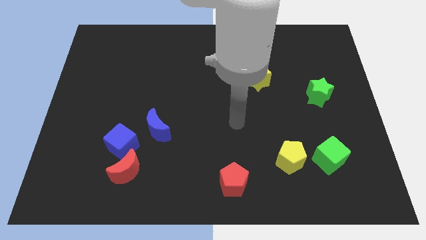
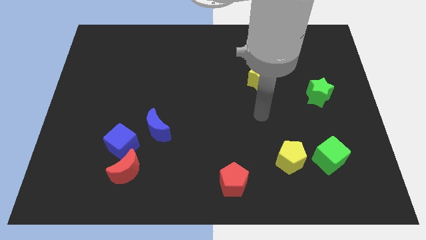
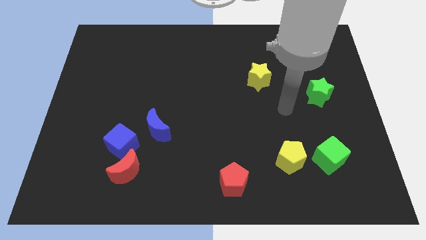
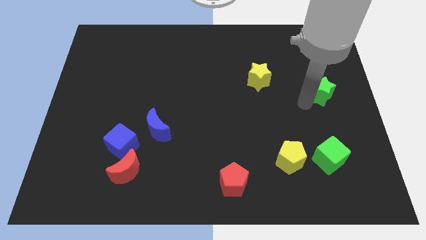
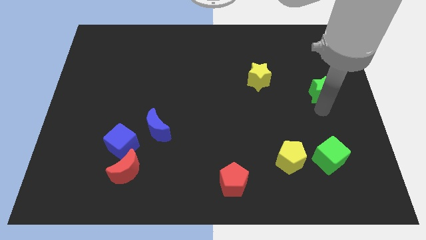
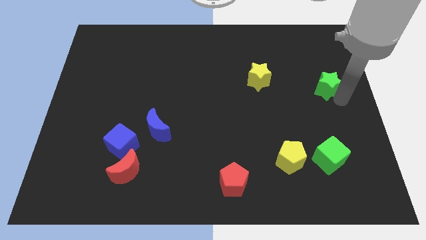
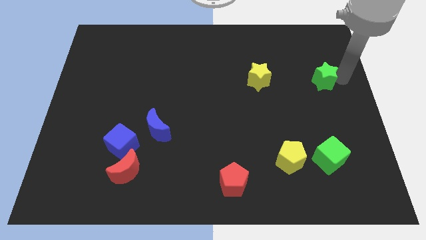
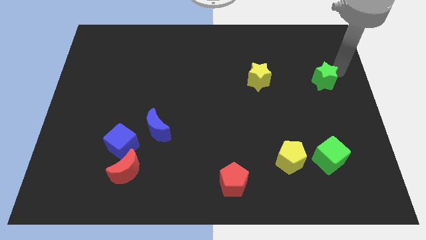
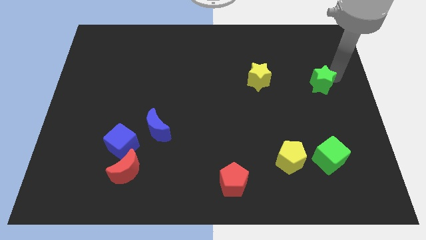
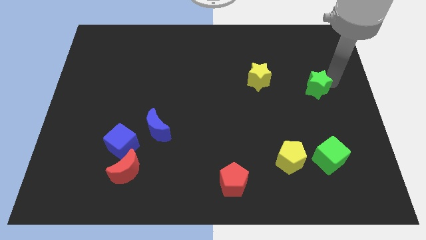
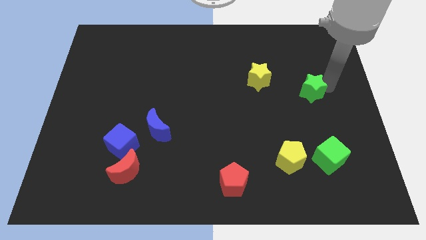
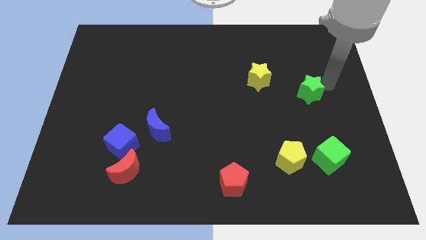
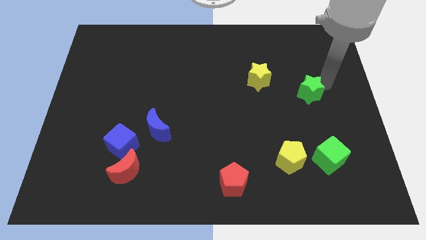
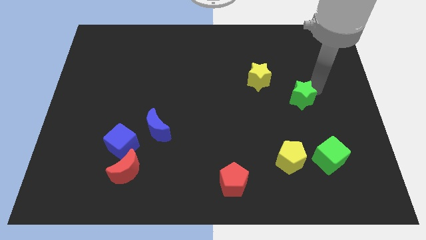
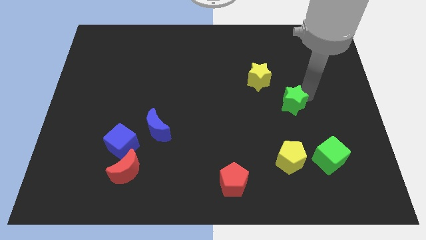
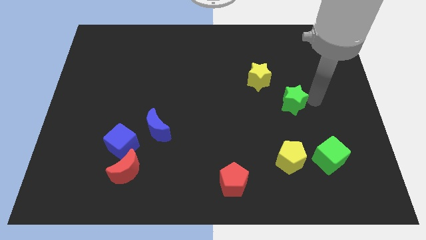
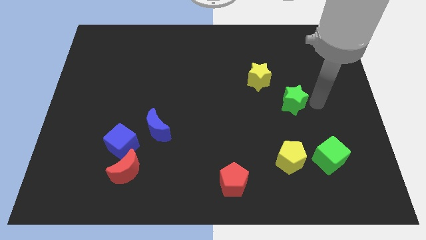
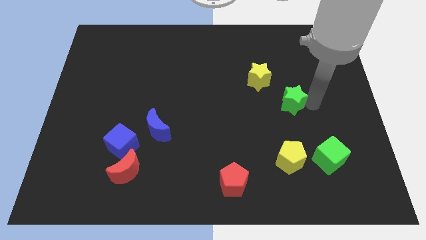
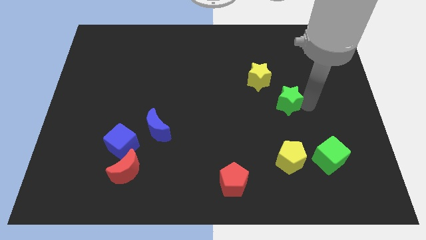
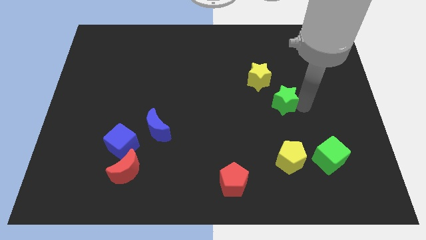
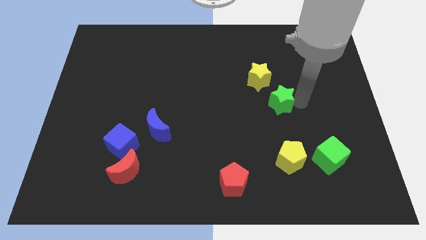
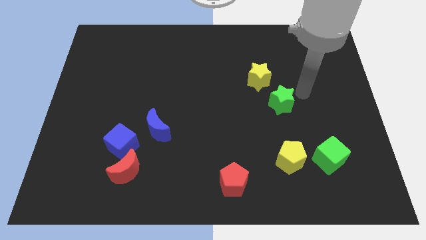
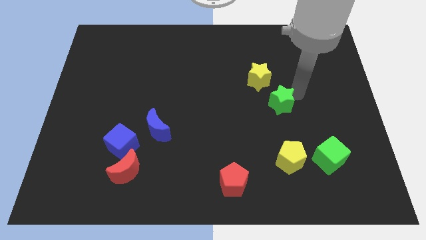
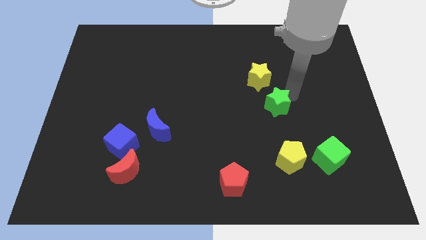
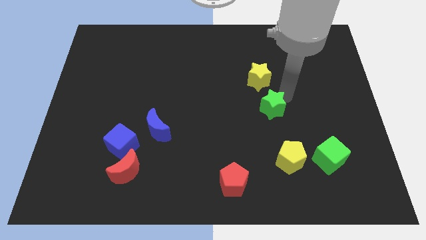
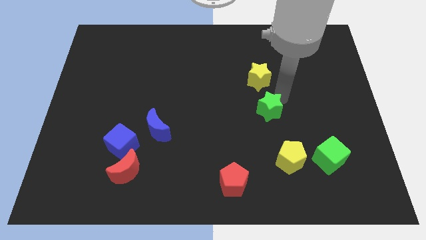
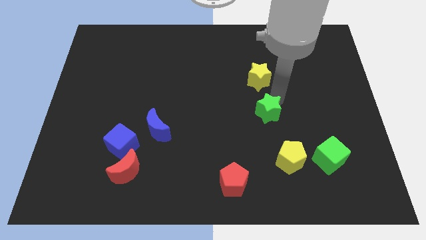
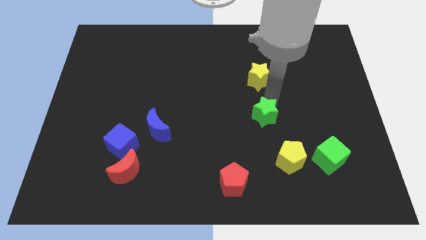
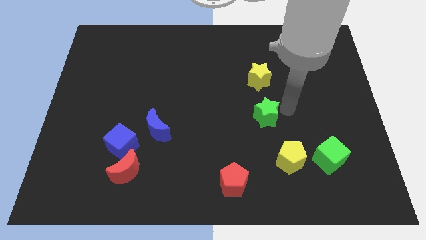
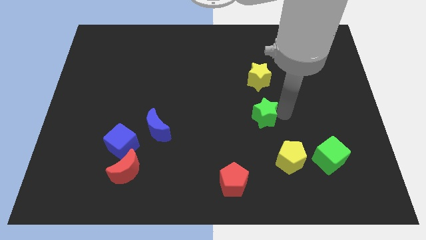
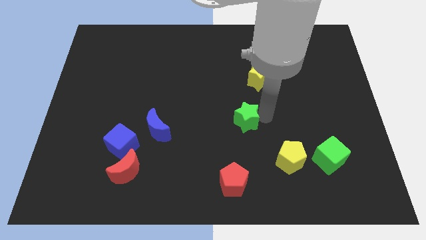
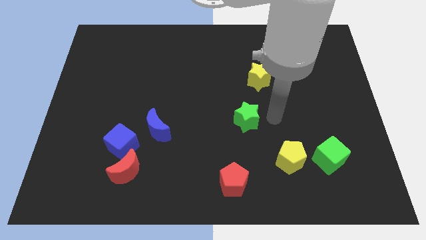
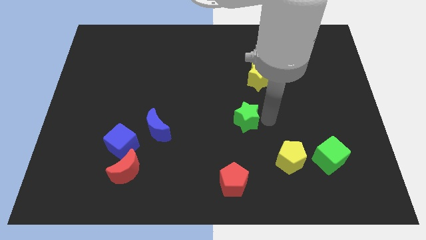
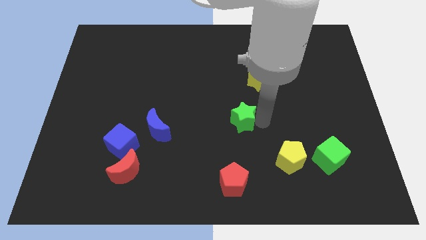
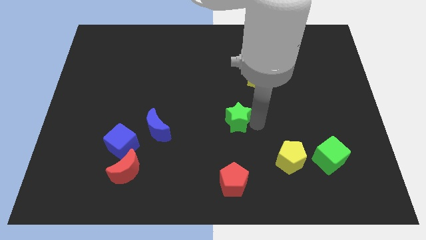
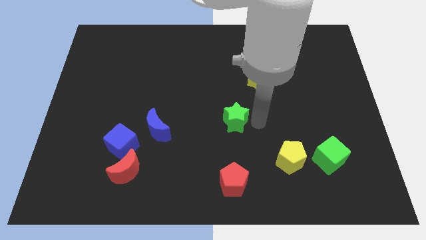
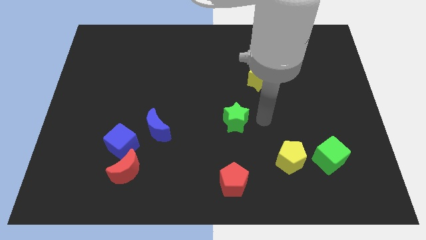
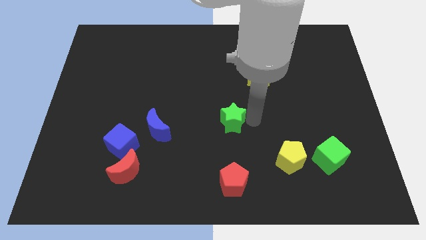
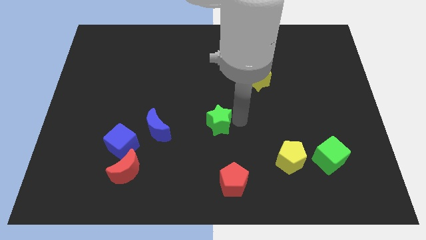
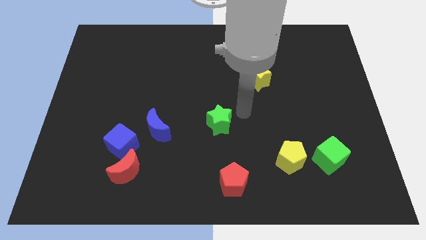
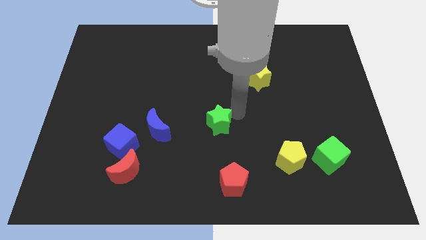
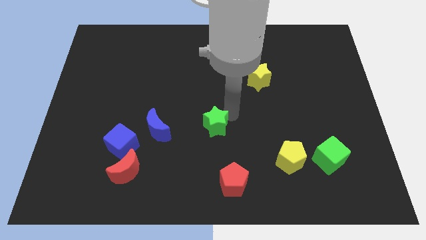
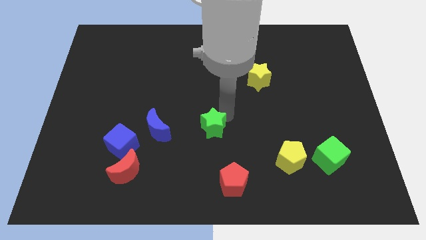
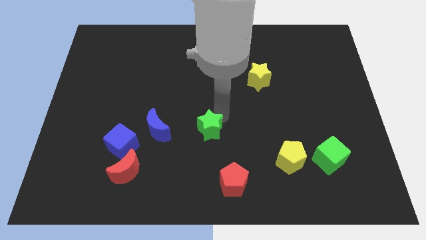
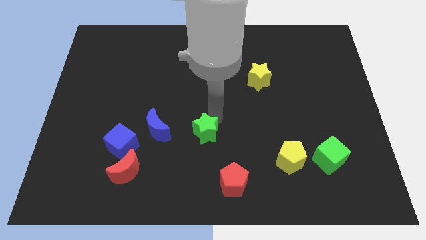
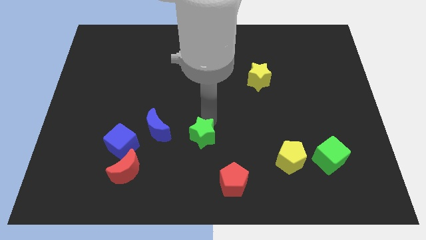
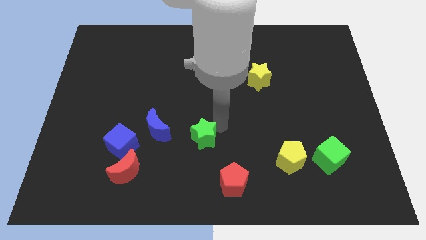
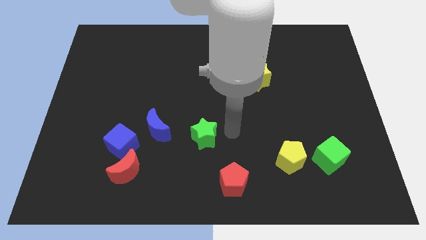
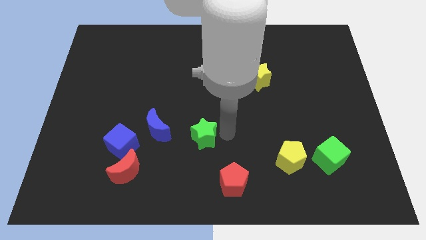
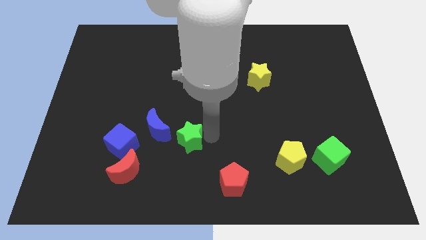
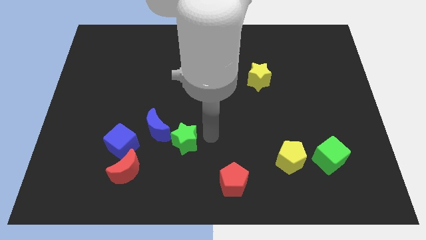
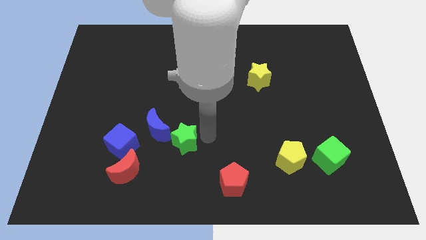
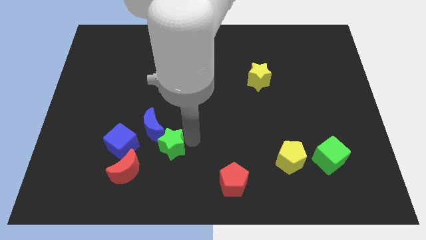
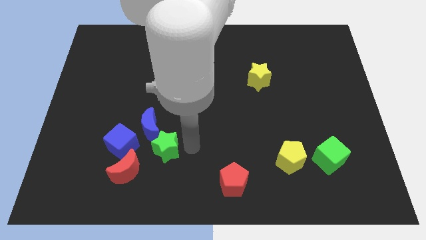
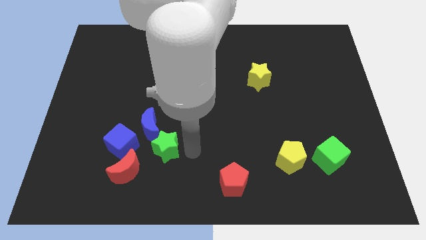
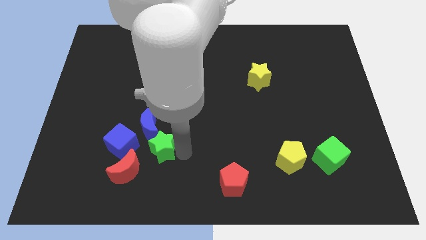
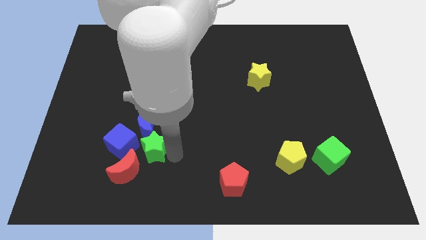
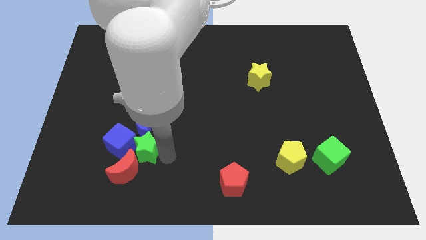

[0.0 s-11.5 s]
push the green star to the blue cube

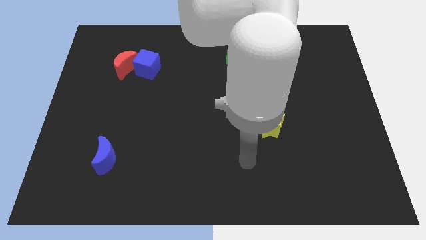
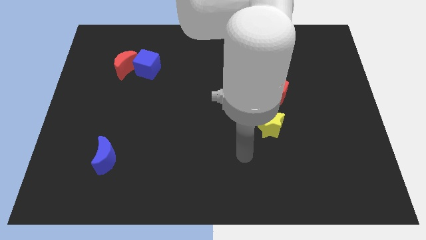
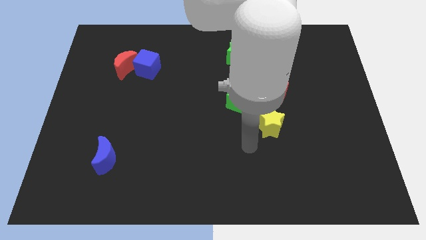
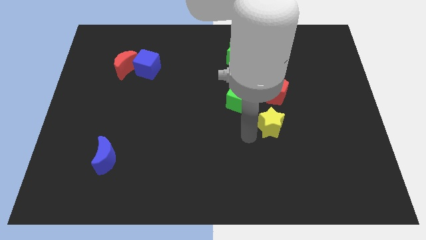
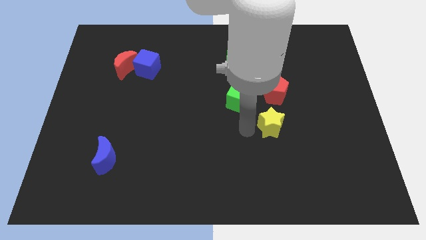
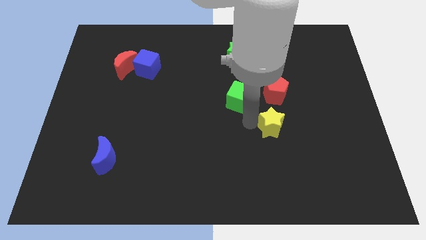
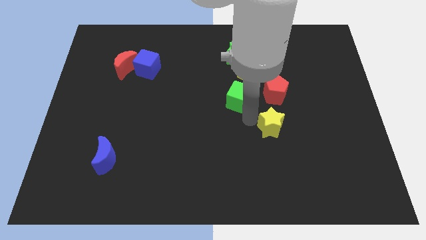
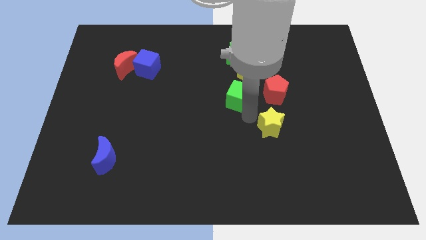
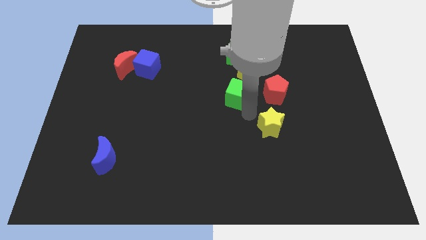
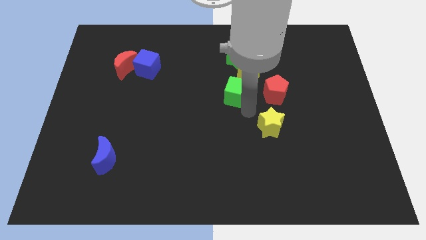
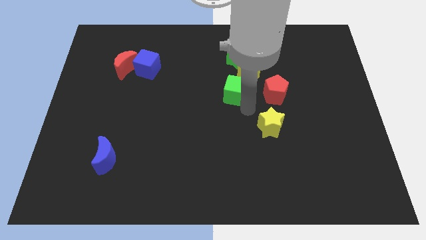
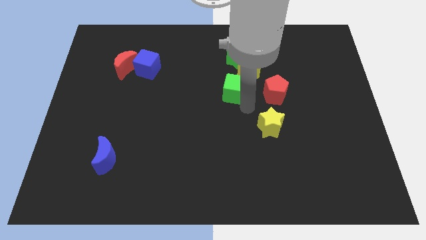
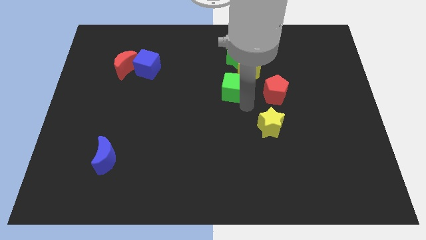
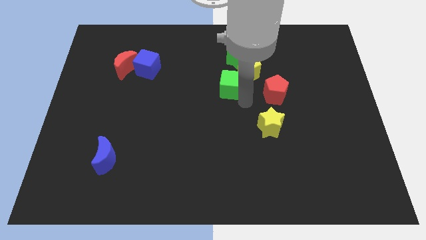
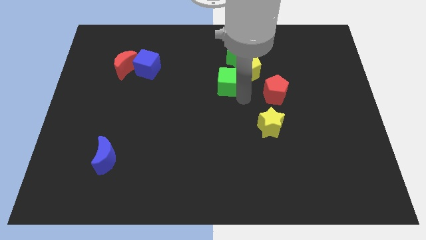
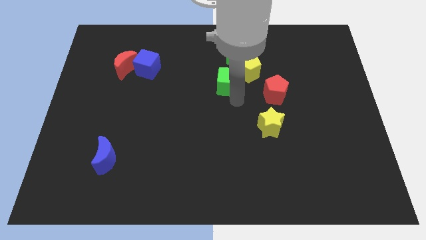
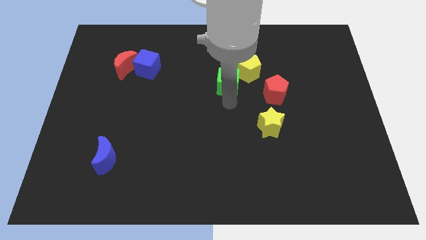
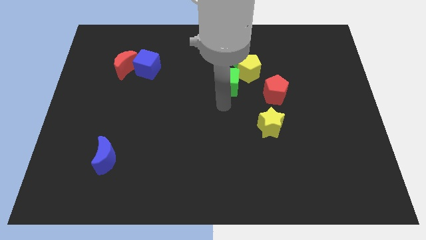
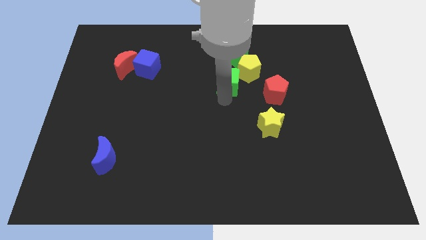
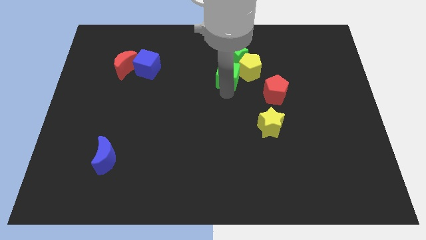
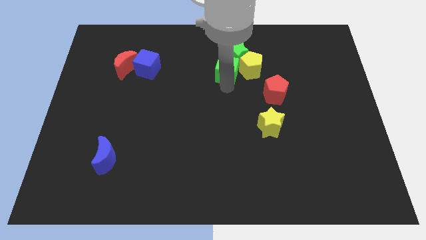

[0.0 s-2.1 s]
slide the green cube to the green star
